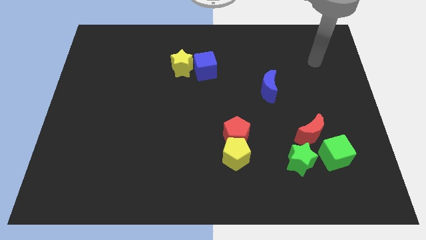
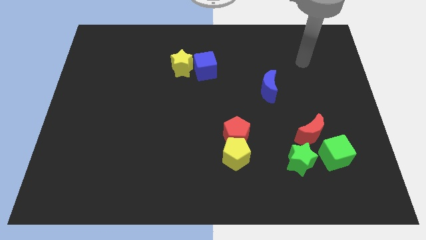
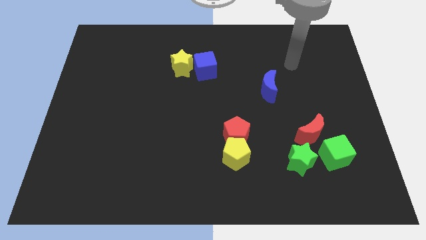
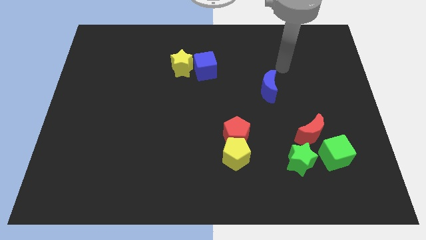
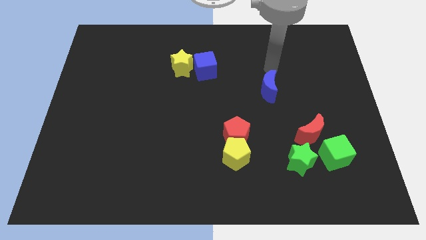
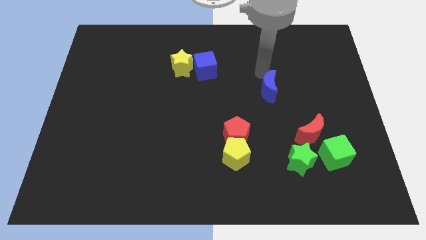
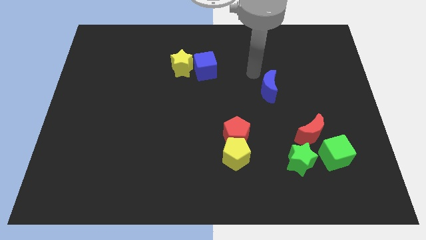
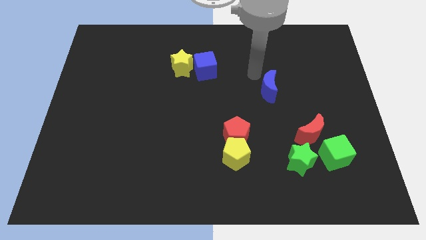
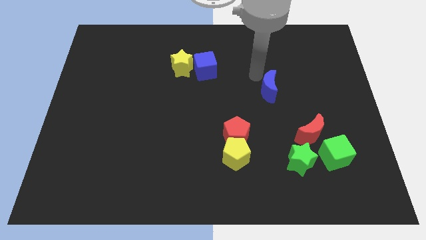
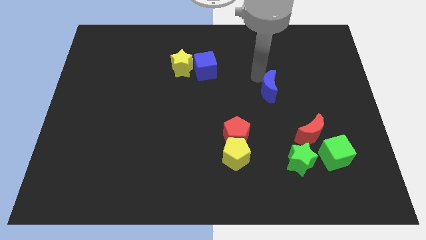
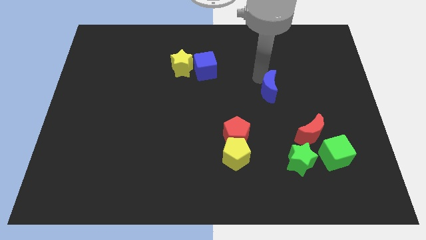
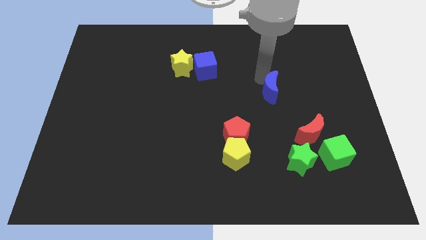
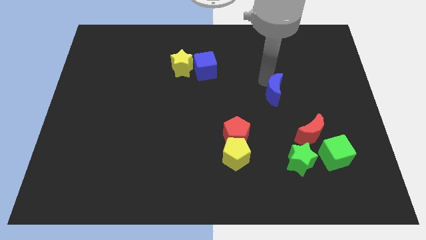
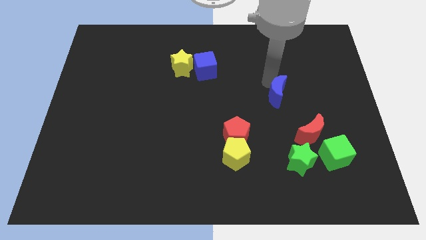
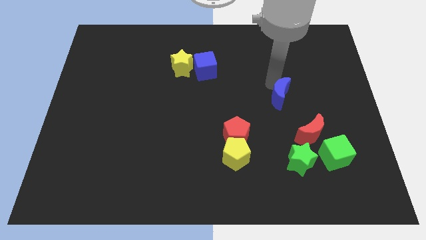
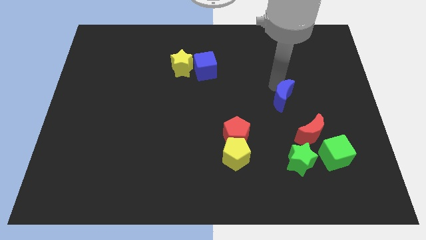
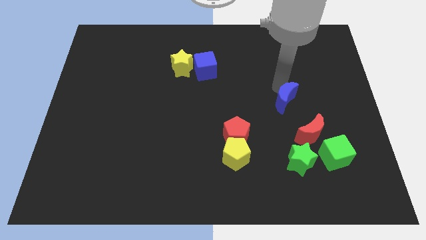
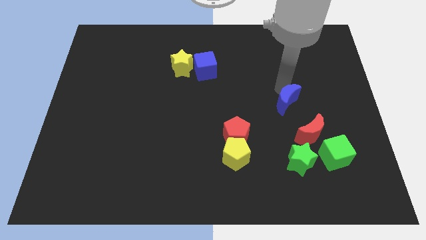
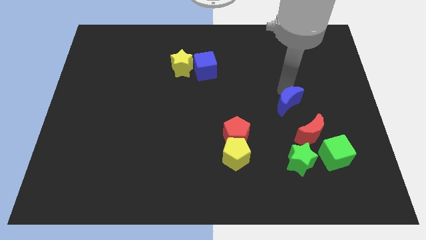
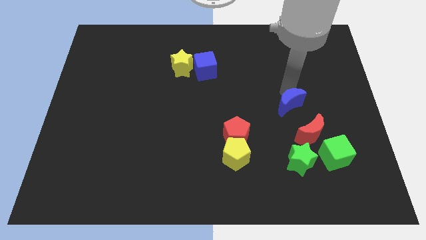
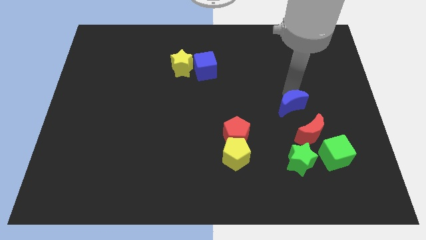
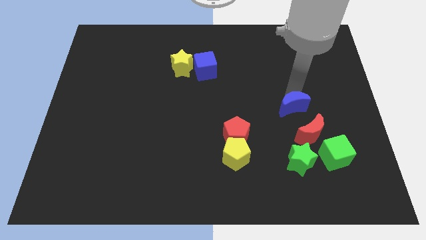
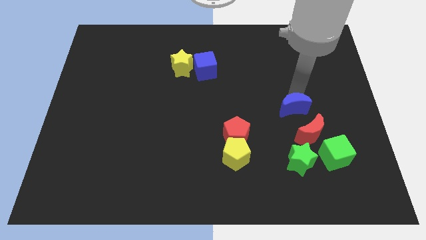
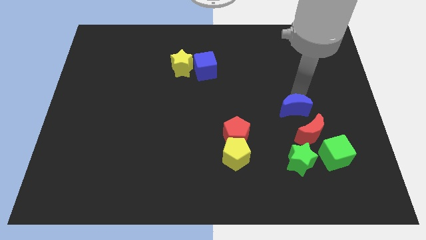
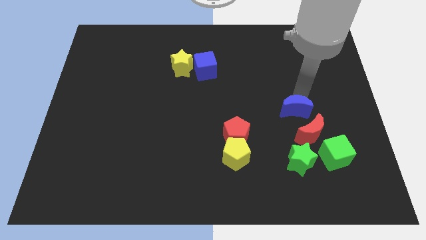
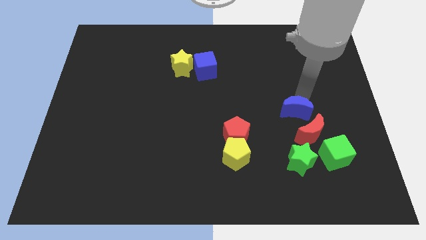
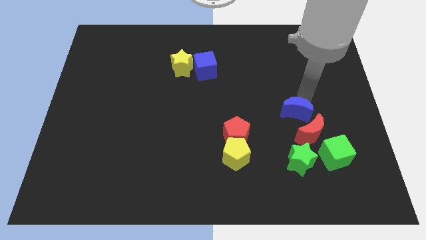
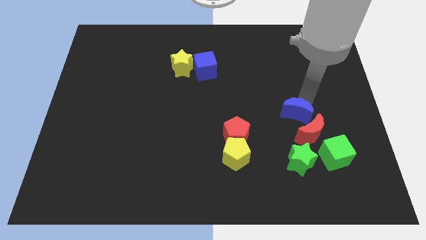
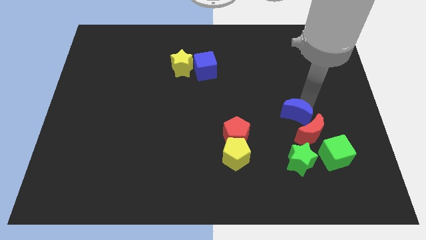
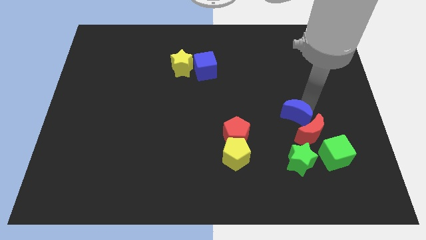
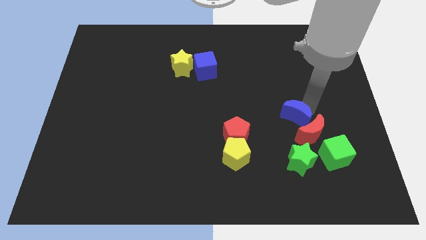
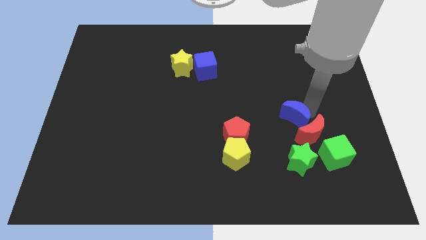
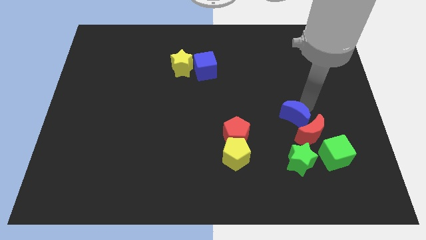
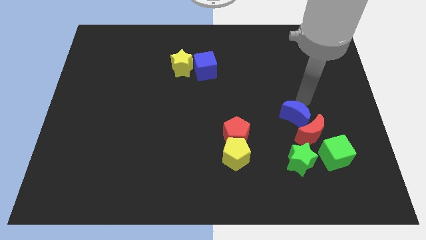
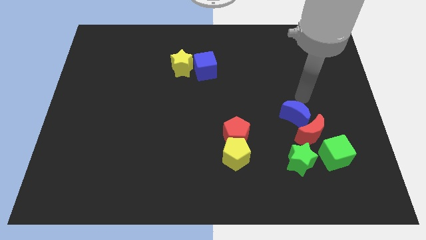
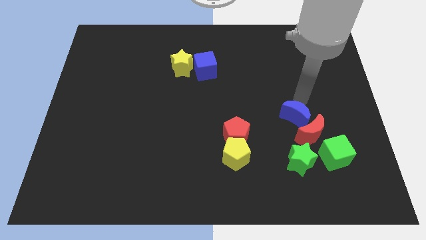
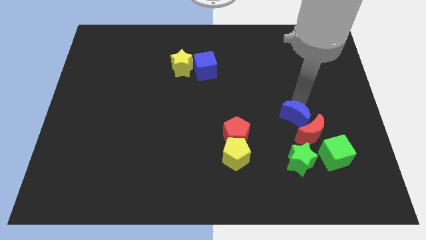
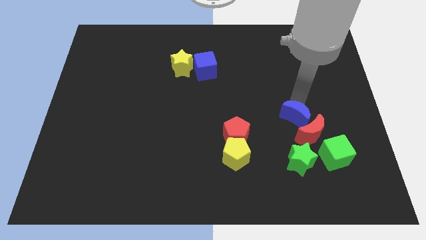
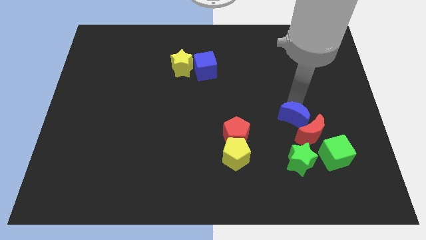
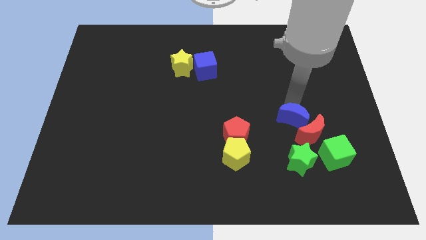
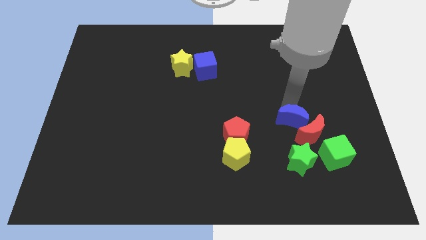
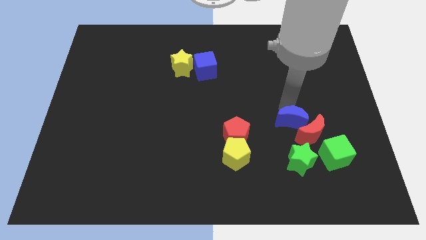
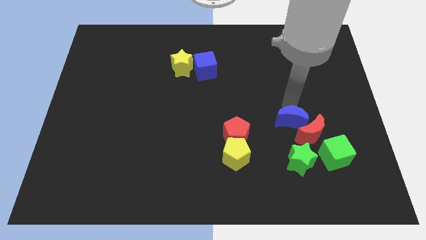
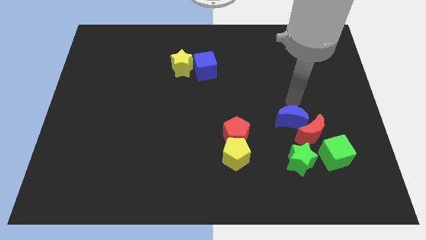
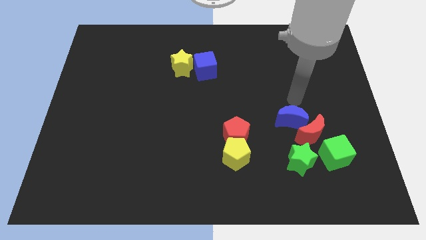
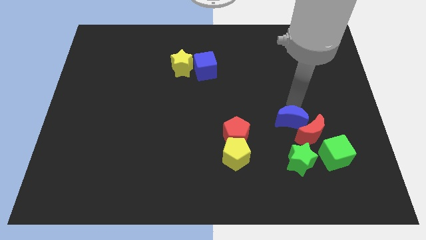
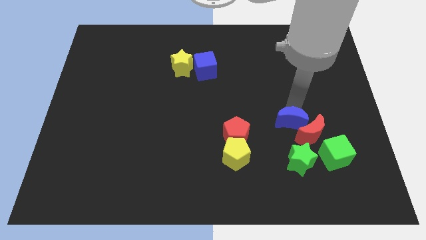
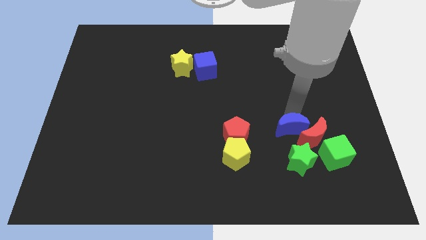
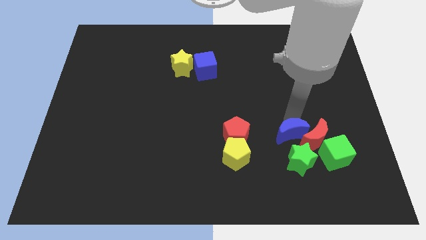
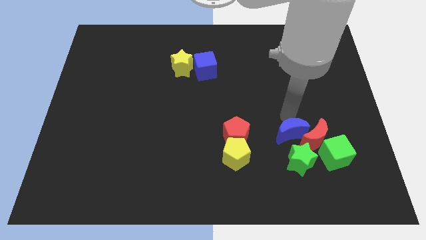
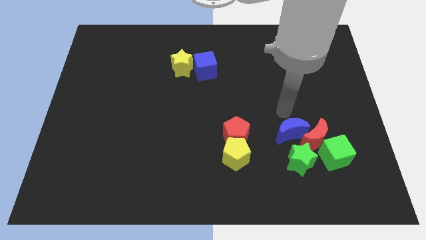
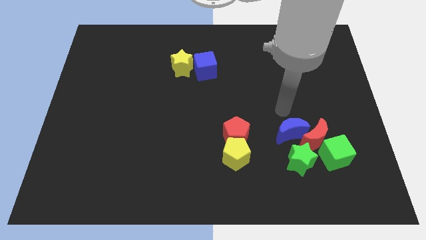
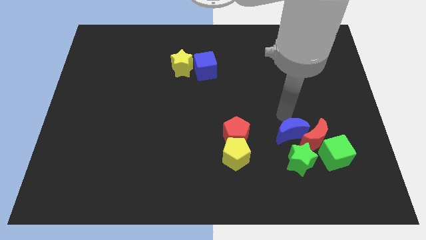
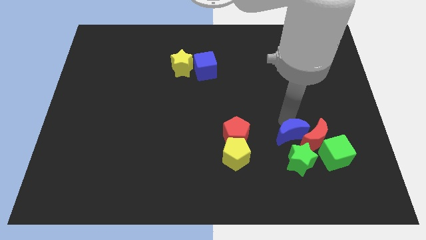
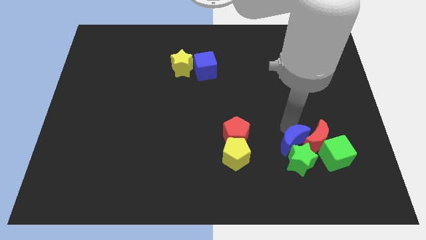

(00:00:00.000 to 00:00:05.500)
put the blue moon towards the green star

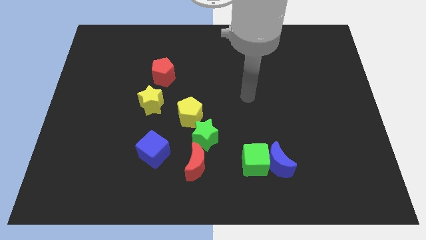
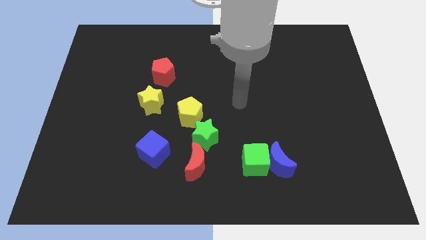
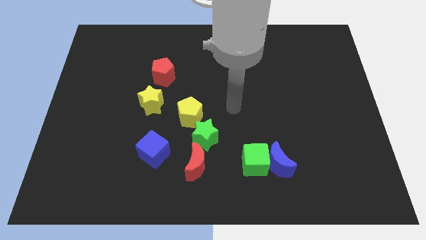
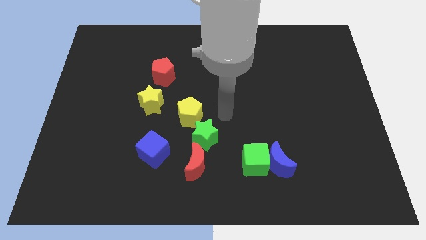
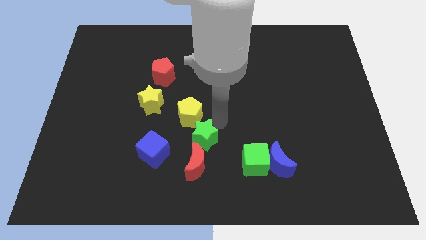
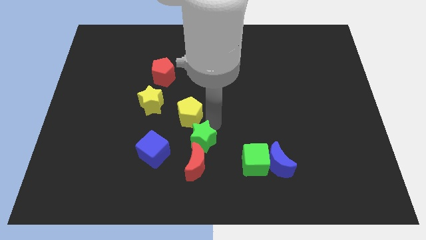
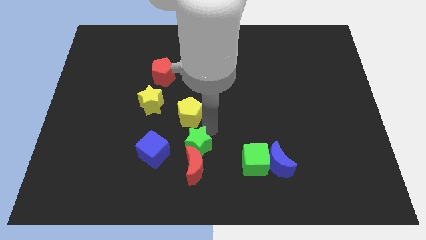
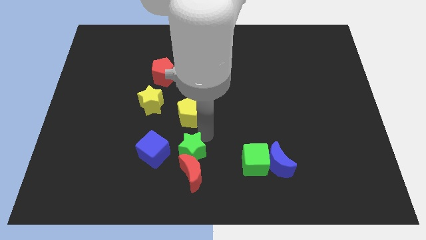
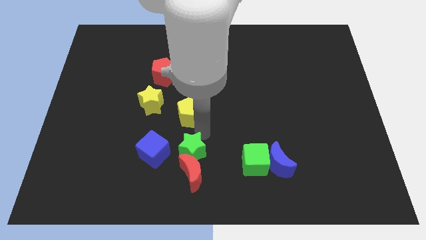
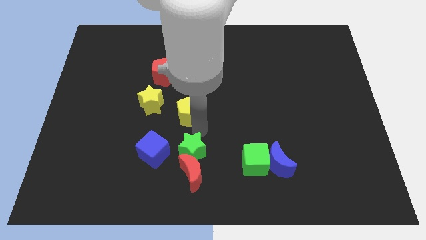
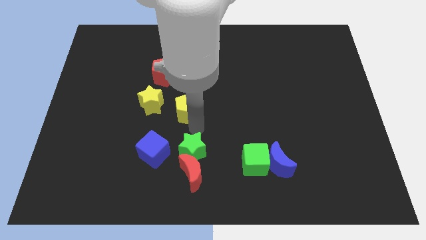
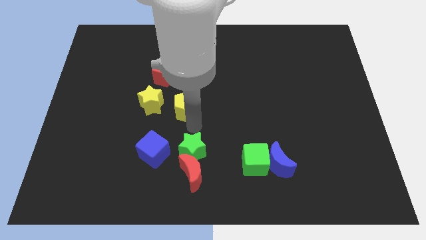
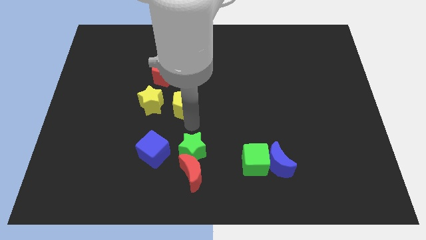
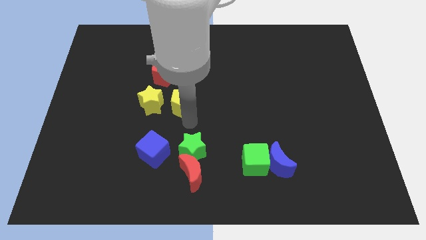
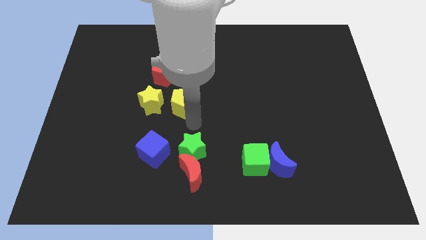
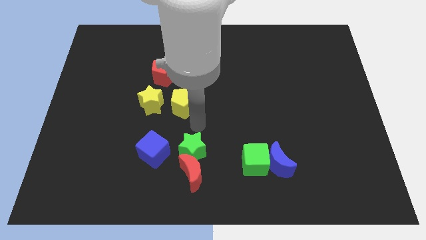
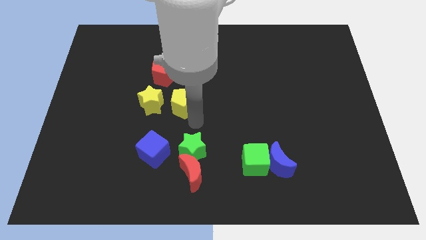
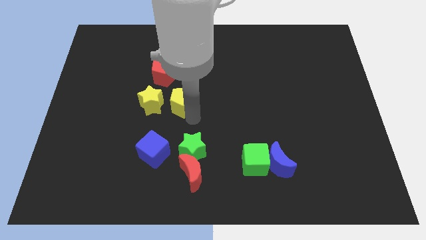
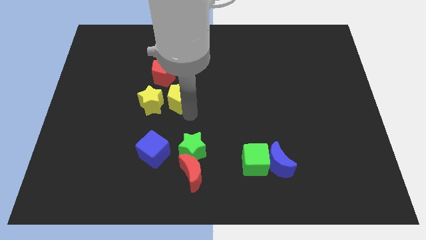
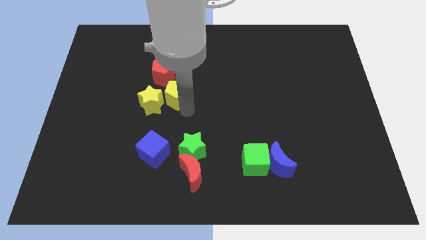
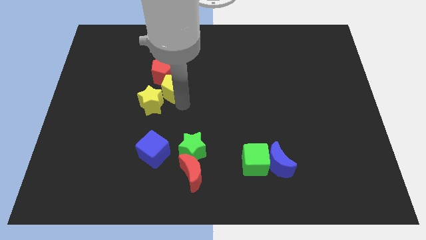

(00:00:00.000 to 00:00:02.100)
put the yellow pentagon close to the red pentagon
